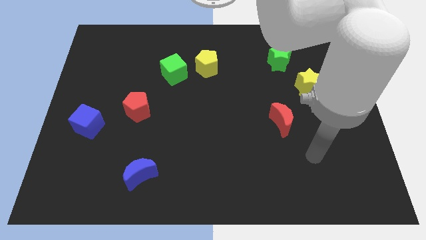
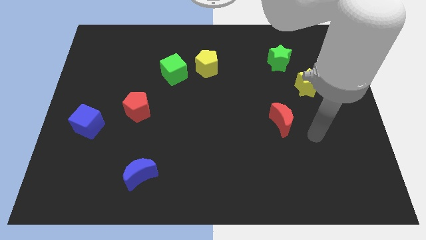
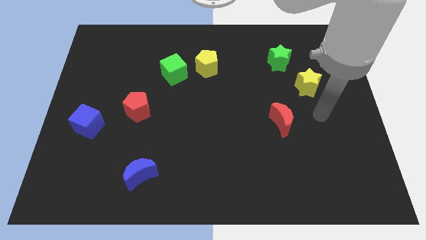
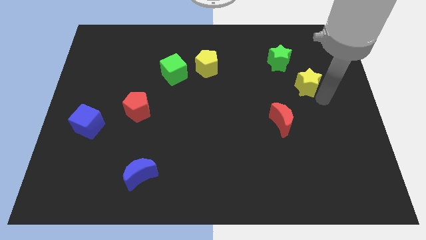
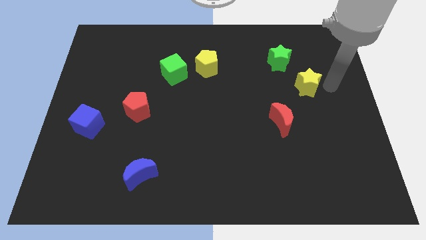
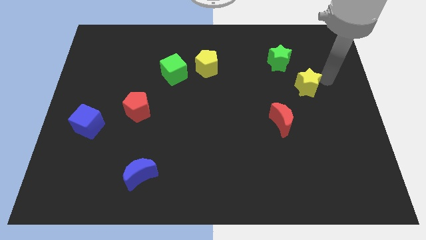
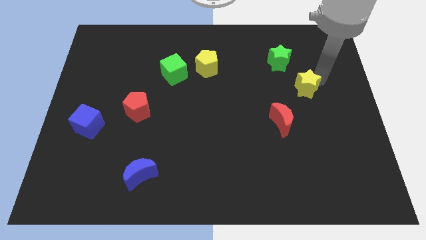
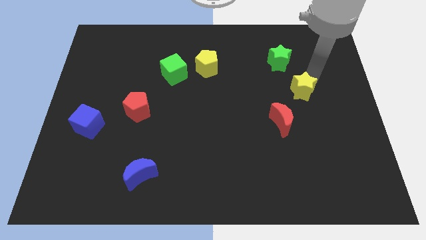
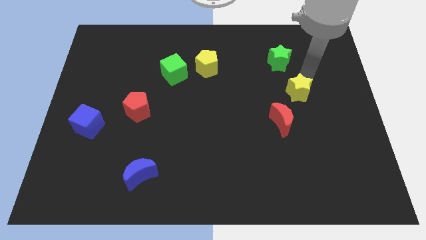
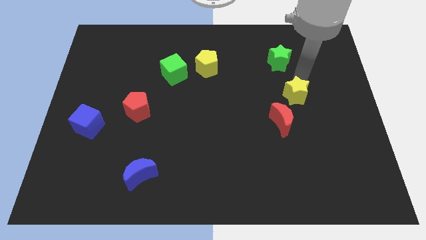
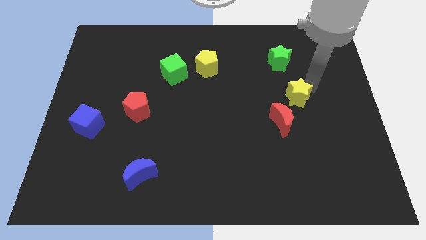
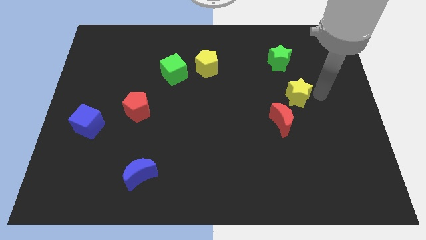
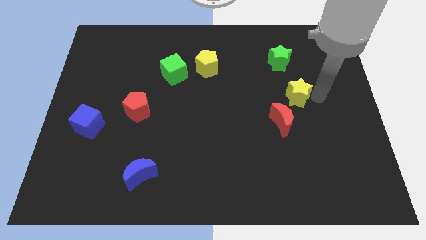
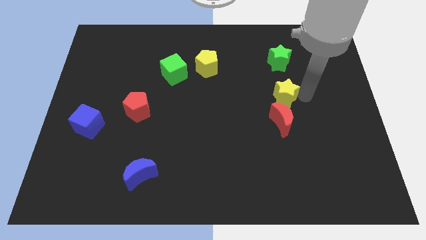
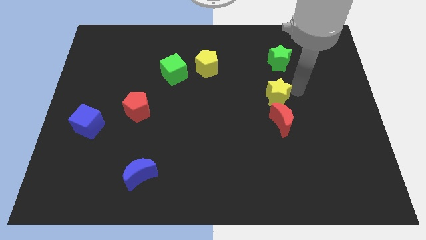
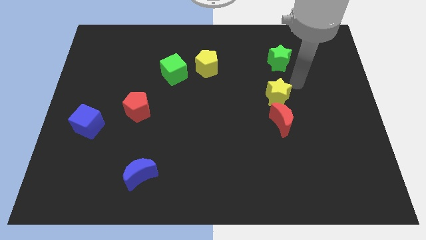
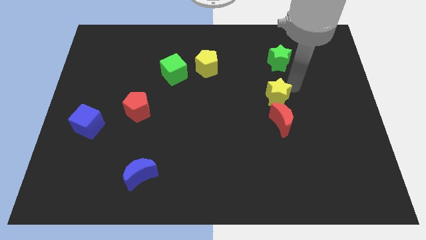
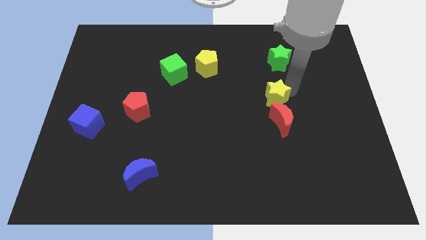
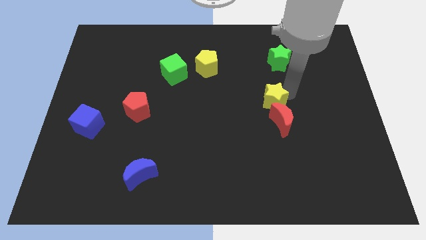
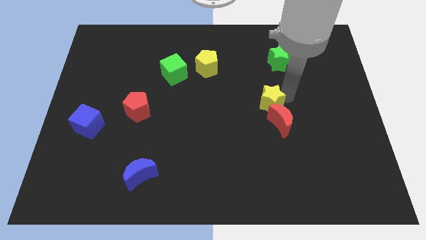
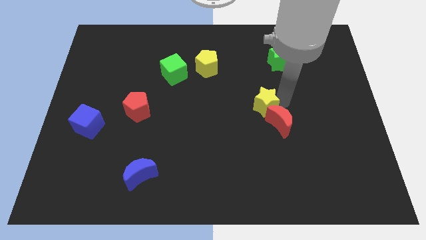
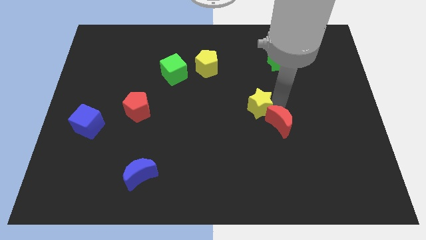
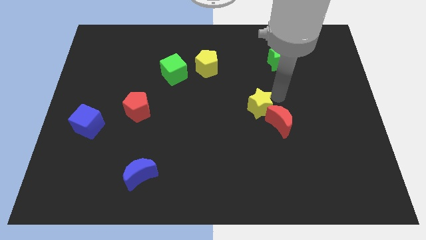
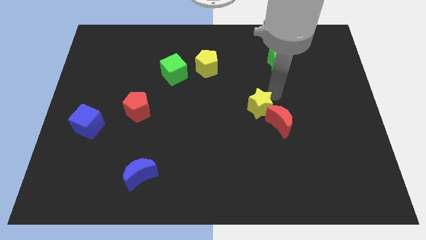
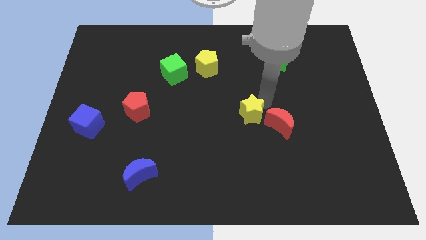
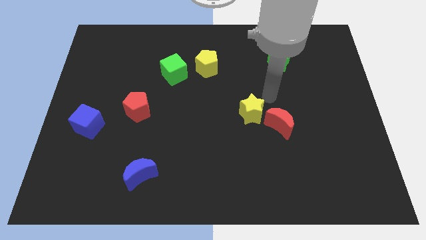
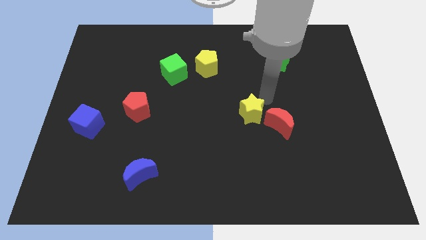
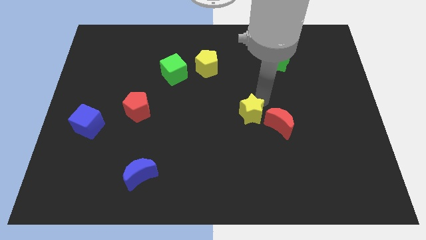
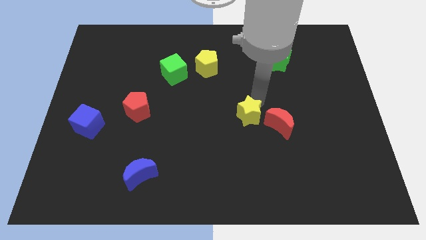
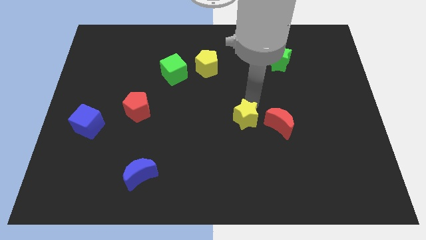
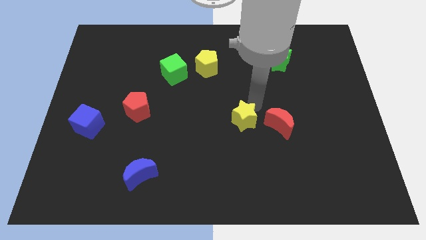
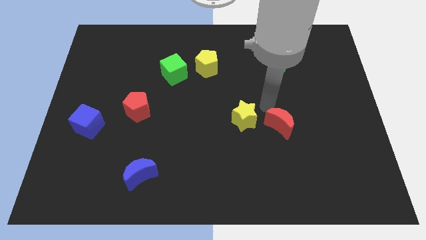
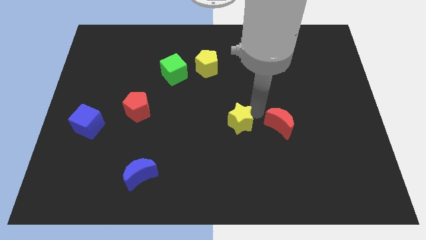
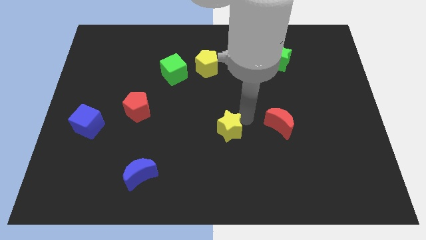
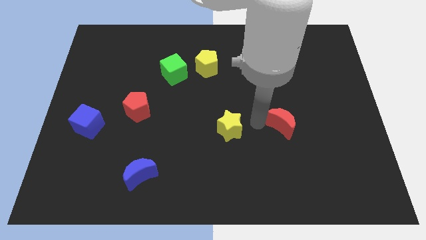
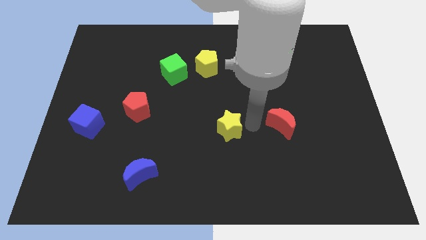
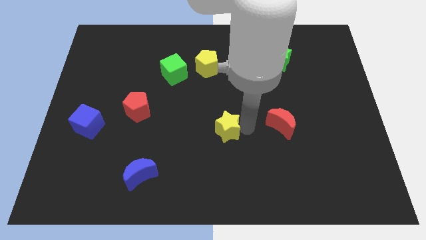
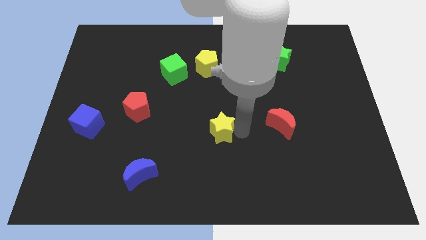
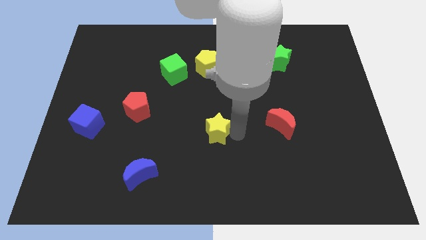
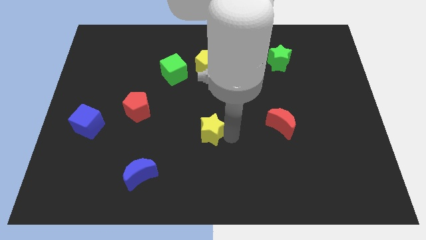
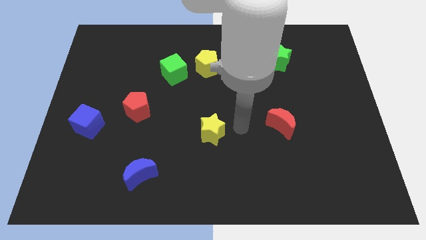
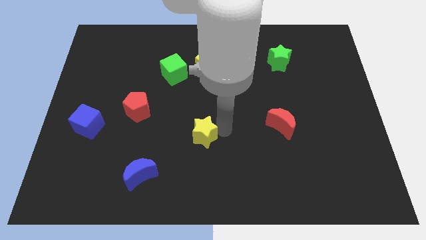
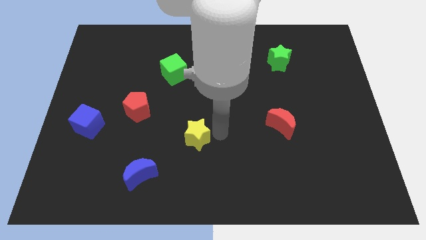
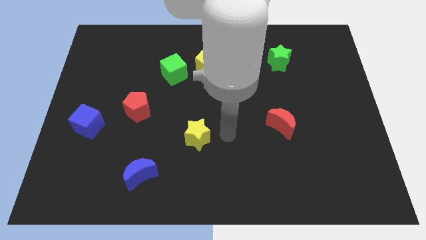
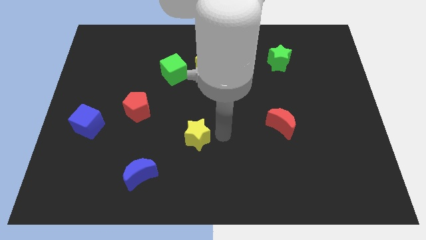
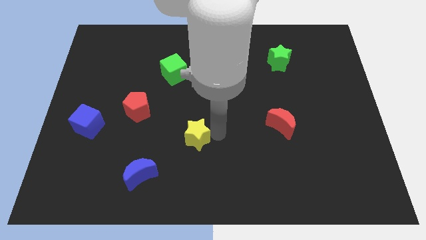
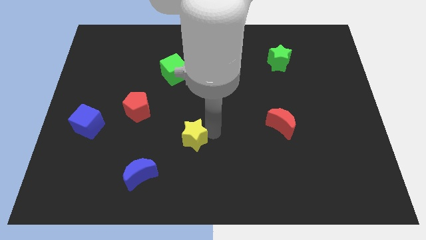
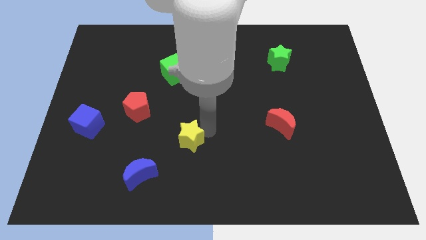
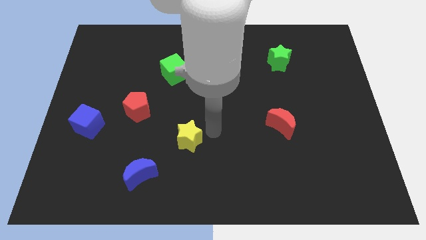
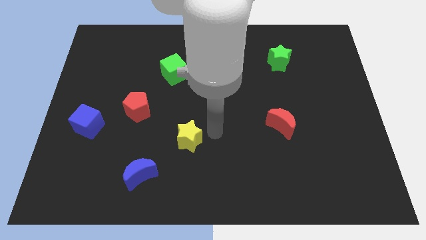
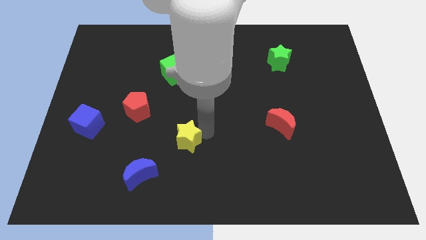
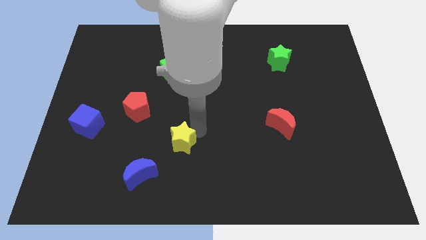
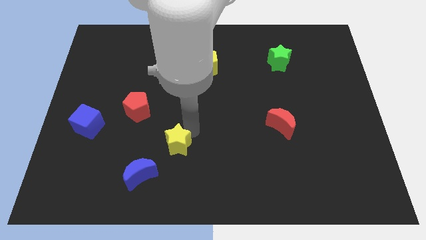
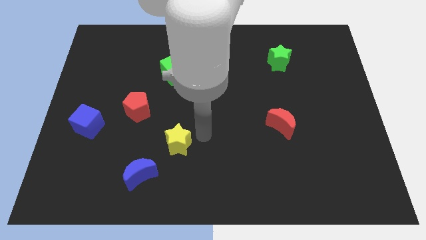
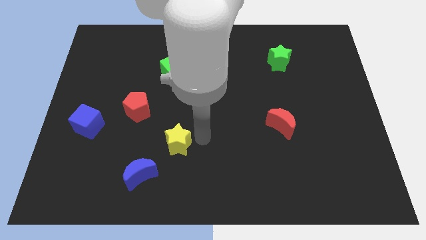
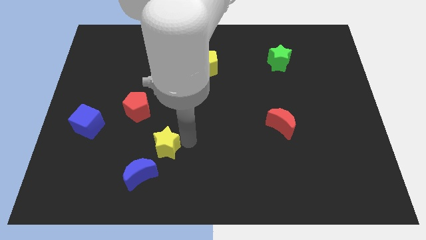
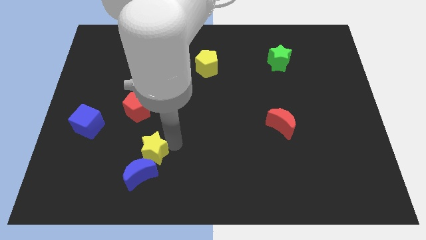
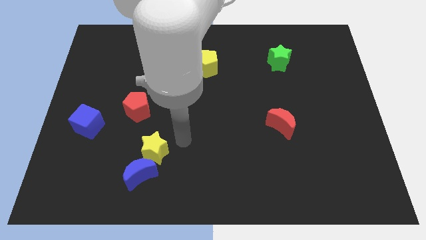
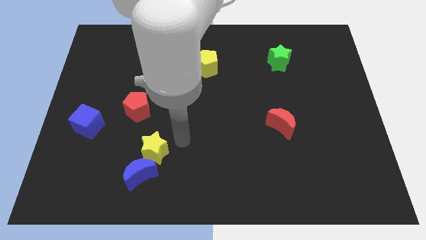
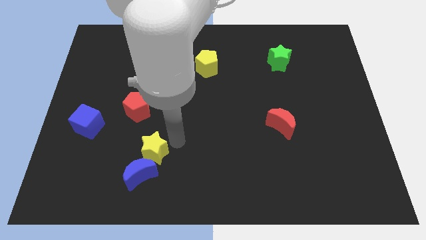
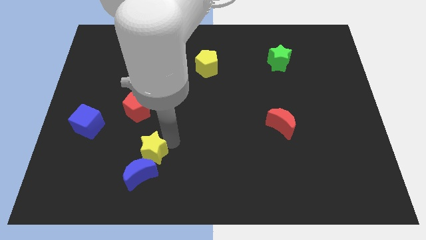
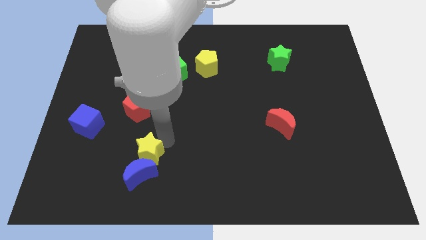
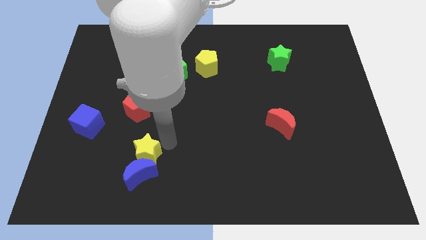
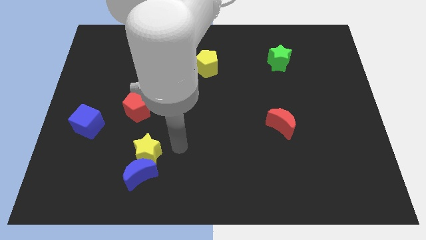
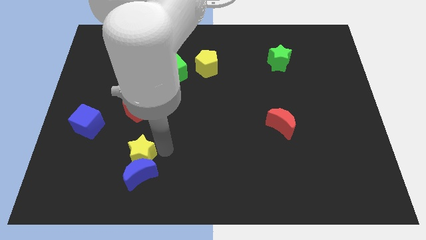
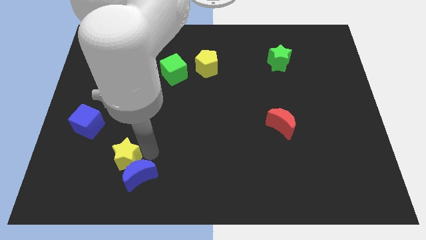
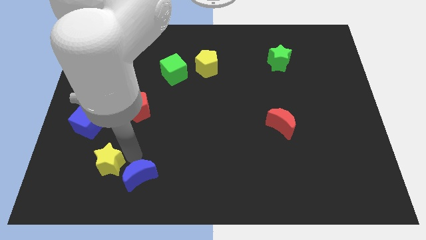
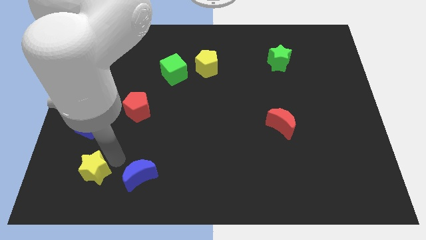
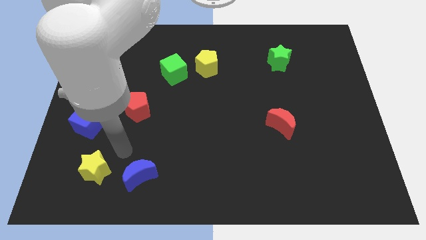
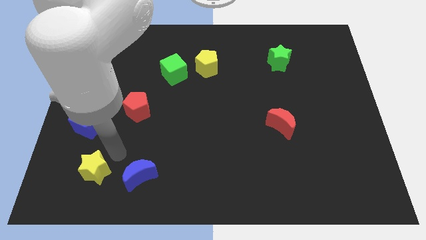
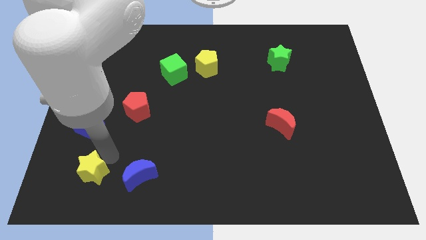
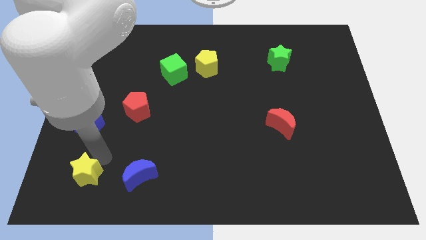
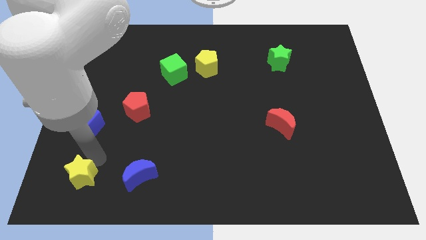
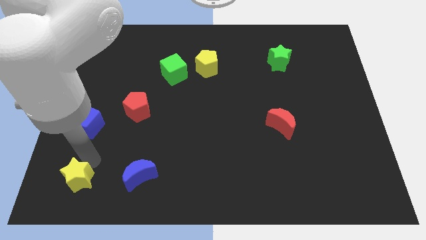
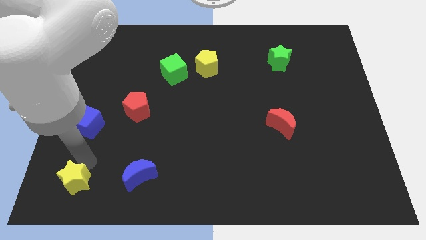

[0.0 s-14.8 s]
slide the yellow star to the lower left corner
